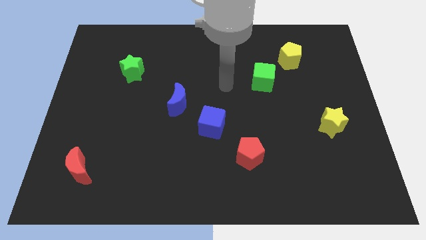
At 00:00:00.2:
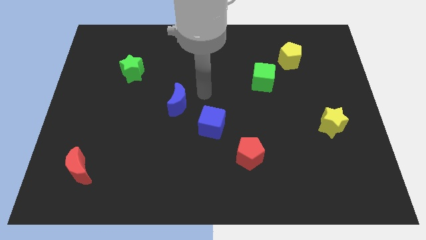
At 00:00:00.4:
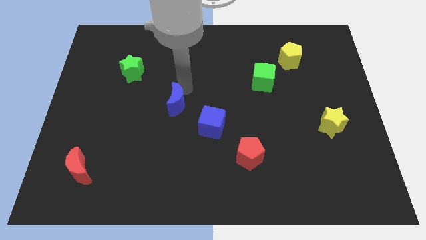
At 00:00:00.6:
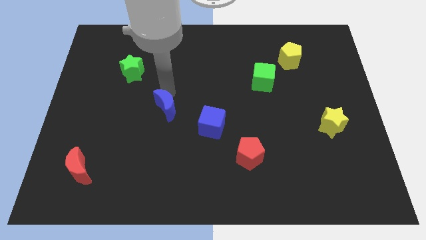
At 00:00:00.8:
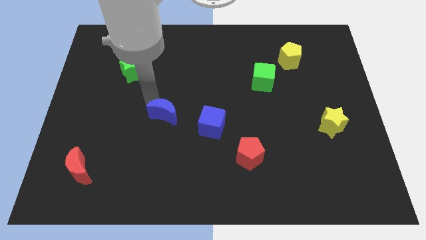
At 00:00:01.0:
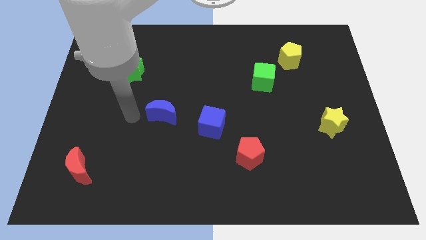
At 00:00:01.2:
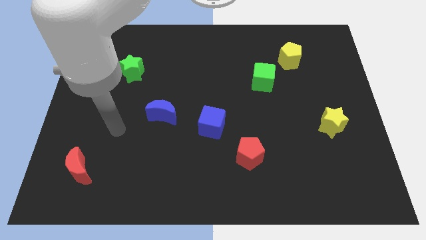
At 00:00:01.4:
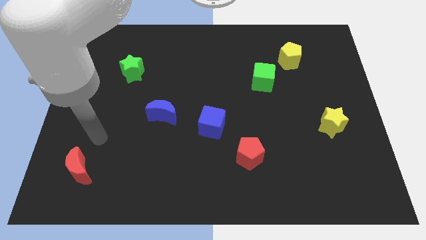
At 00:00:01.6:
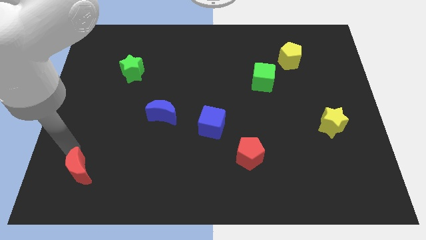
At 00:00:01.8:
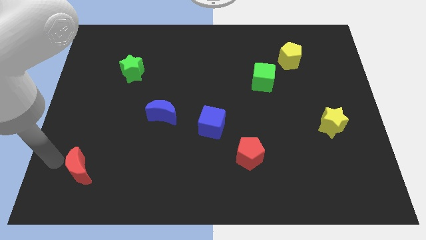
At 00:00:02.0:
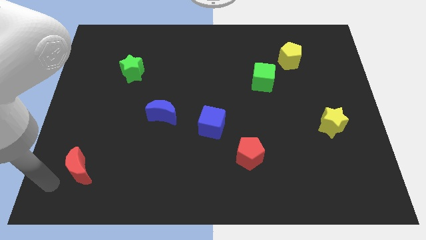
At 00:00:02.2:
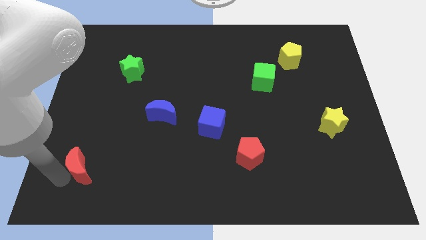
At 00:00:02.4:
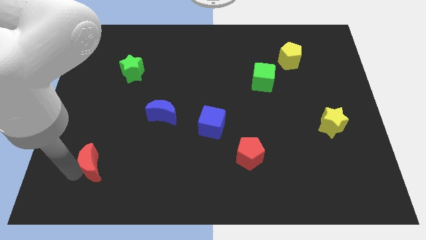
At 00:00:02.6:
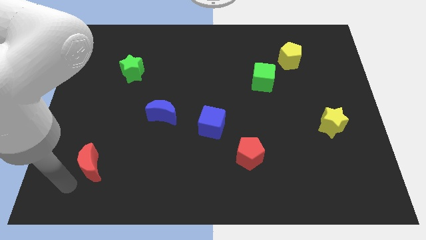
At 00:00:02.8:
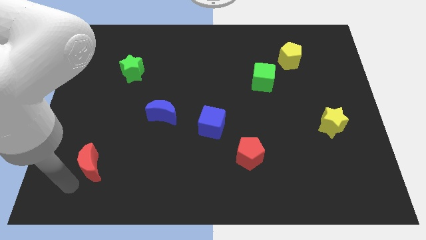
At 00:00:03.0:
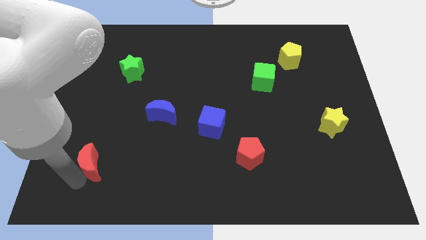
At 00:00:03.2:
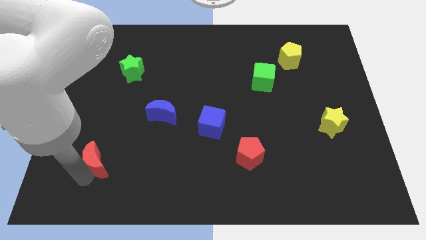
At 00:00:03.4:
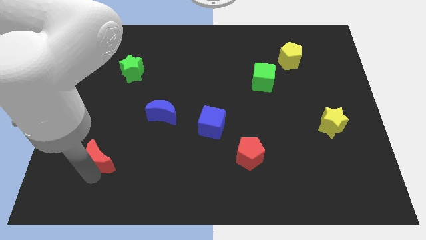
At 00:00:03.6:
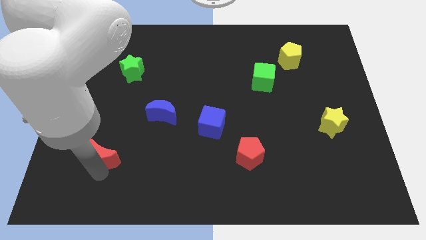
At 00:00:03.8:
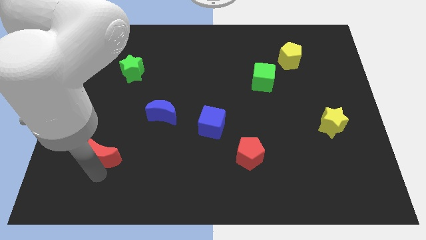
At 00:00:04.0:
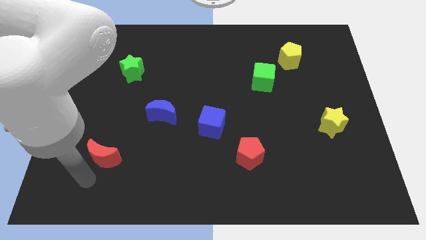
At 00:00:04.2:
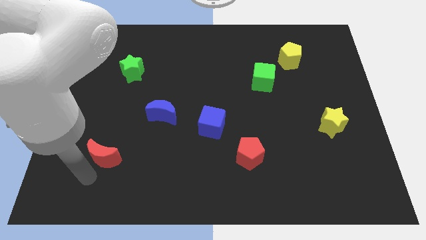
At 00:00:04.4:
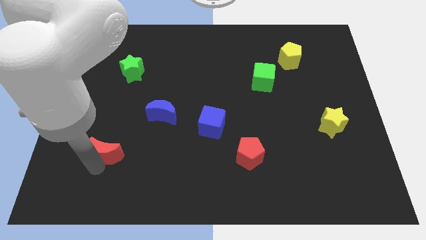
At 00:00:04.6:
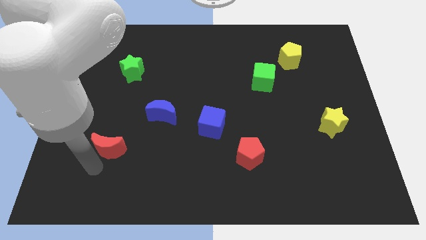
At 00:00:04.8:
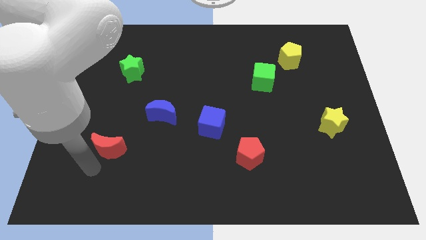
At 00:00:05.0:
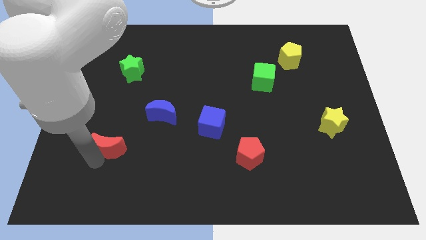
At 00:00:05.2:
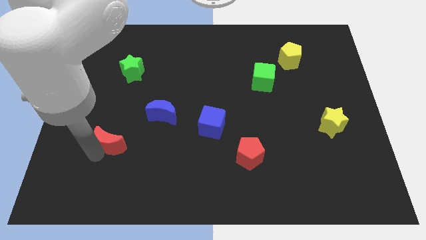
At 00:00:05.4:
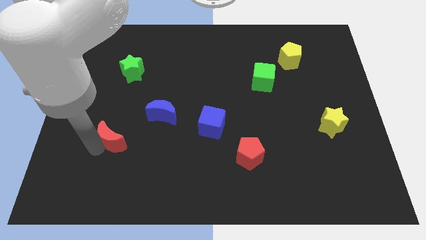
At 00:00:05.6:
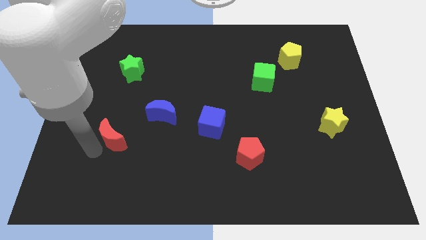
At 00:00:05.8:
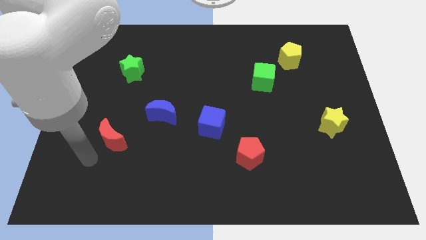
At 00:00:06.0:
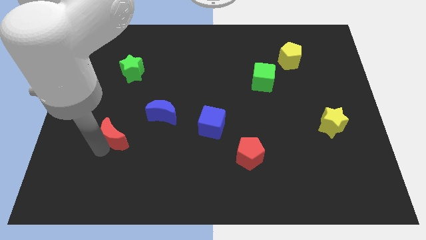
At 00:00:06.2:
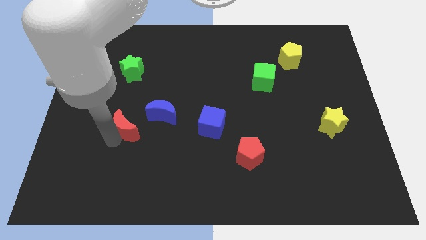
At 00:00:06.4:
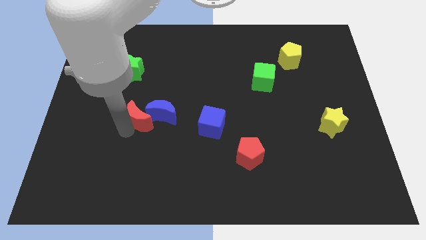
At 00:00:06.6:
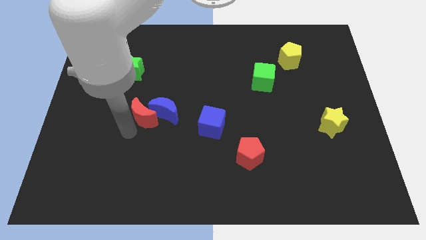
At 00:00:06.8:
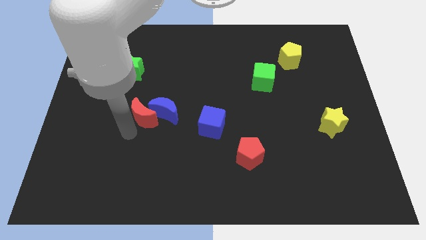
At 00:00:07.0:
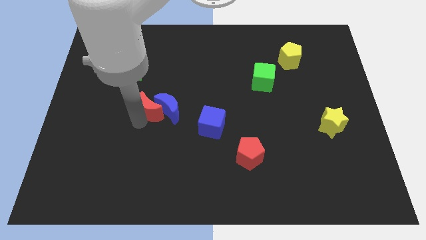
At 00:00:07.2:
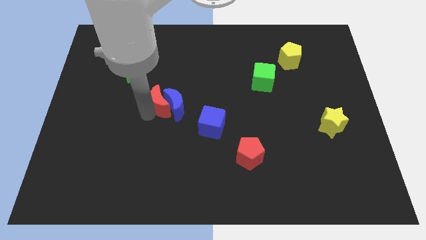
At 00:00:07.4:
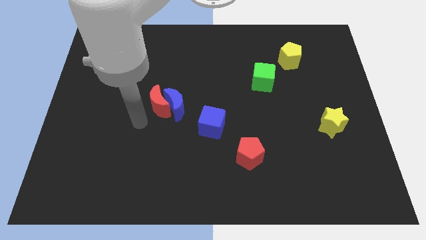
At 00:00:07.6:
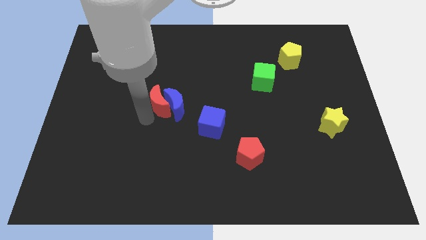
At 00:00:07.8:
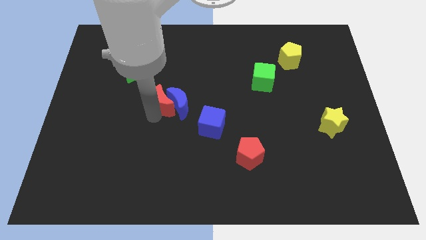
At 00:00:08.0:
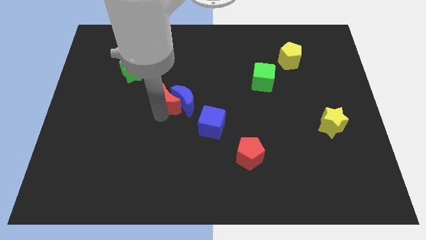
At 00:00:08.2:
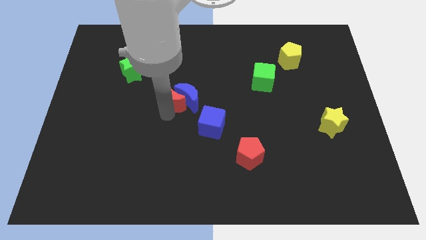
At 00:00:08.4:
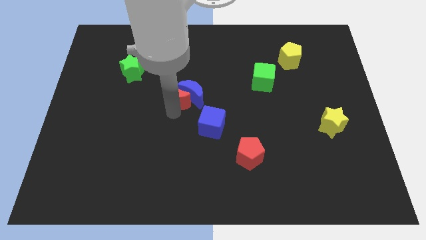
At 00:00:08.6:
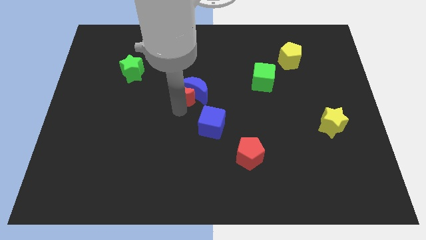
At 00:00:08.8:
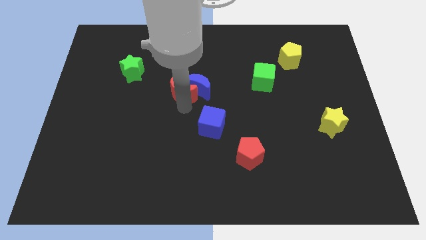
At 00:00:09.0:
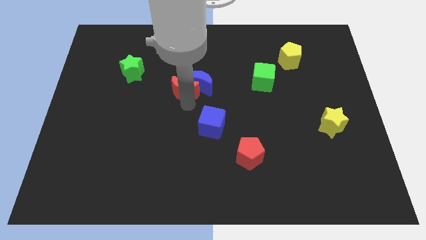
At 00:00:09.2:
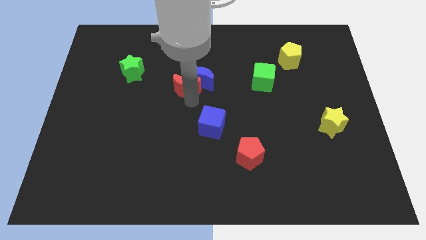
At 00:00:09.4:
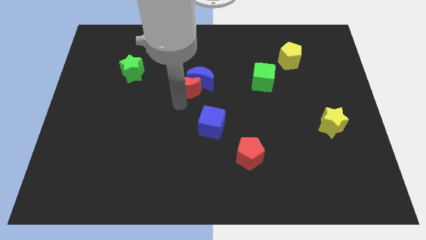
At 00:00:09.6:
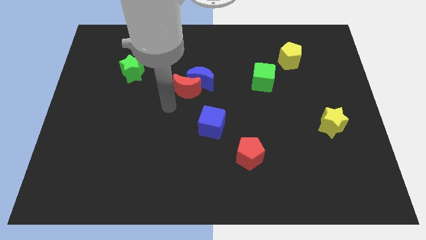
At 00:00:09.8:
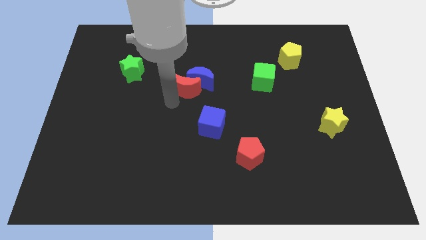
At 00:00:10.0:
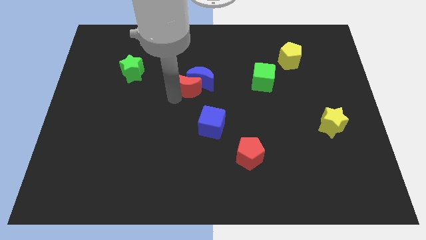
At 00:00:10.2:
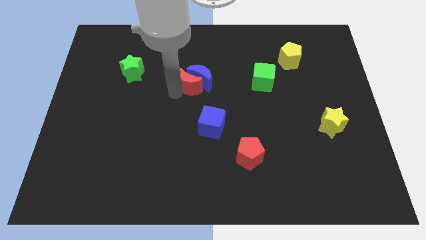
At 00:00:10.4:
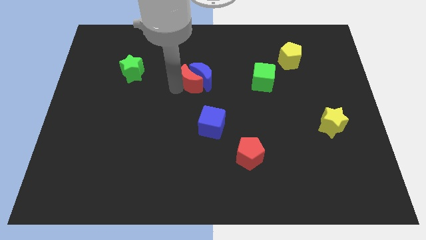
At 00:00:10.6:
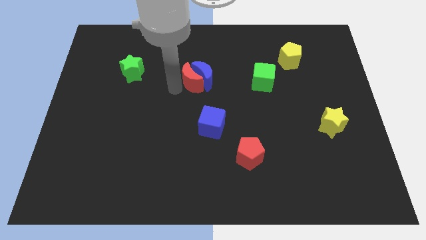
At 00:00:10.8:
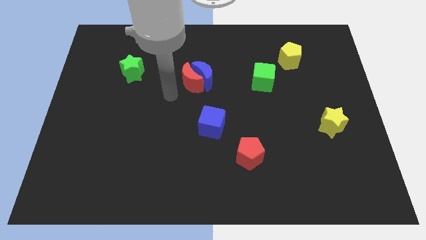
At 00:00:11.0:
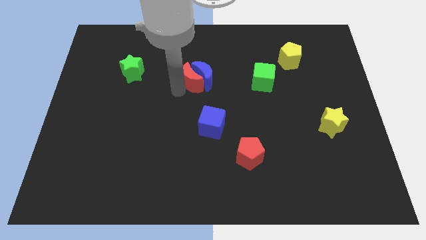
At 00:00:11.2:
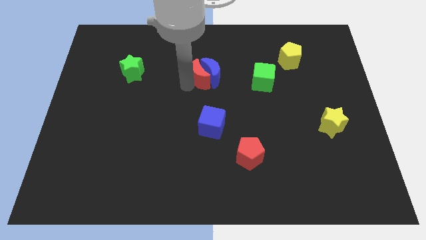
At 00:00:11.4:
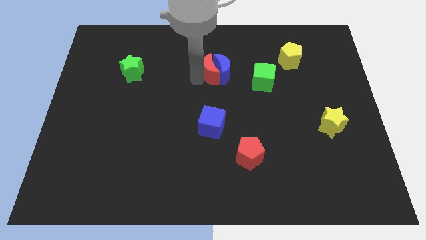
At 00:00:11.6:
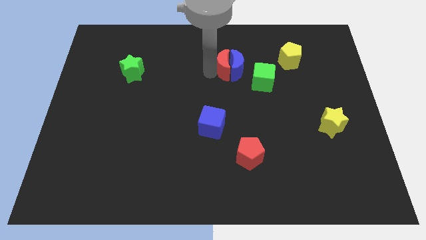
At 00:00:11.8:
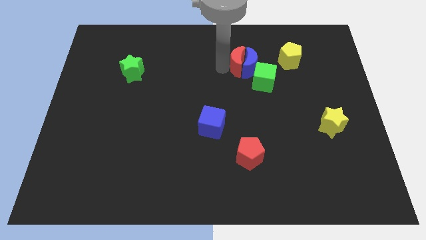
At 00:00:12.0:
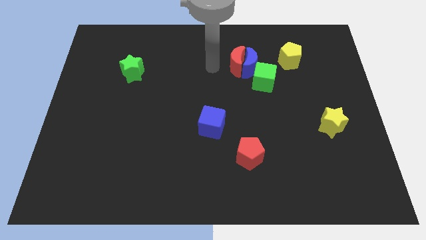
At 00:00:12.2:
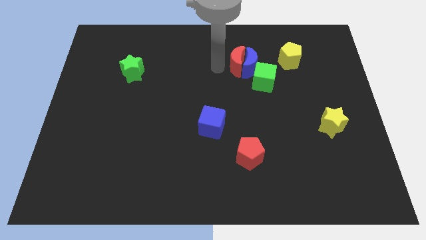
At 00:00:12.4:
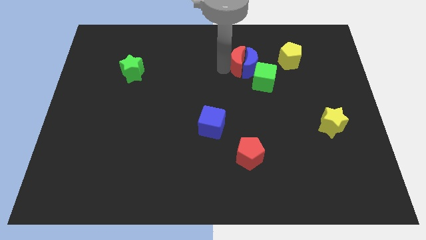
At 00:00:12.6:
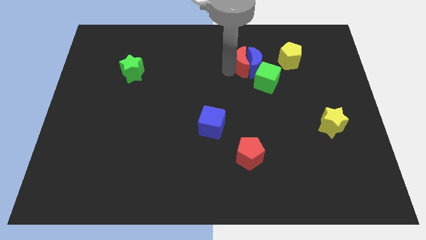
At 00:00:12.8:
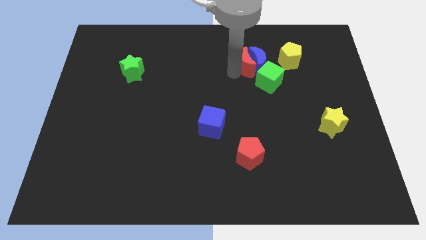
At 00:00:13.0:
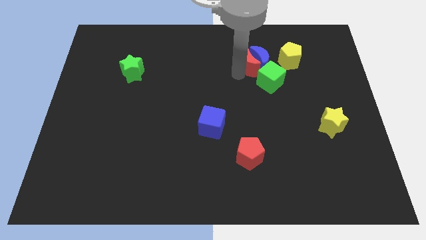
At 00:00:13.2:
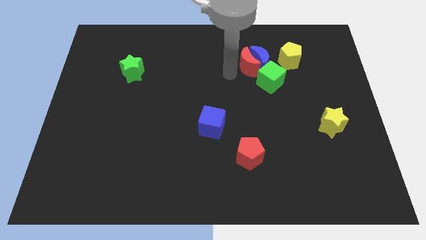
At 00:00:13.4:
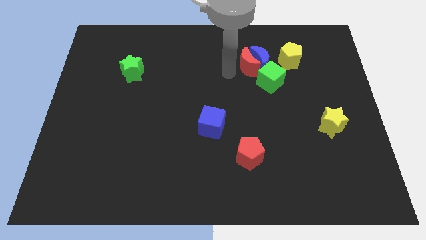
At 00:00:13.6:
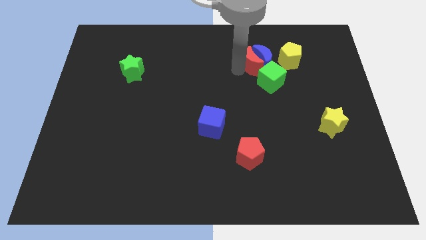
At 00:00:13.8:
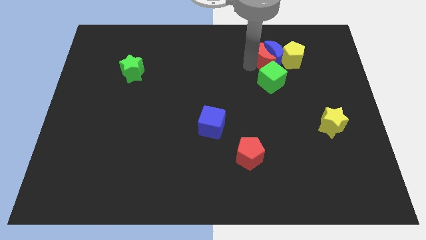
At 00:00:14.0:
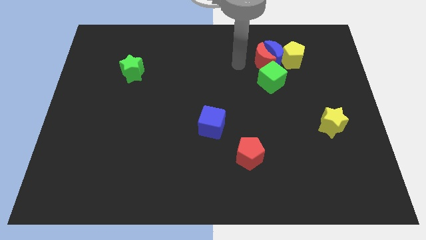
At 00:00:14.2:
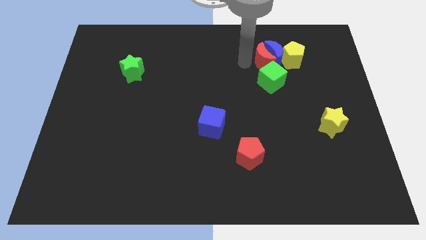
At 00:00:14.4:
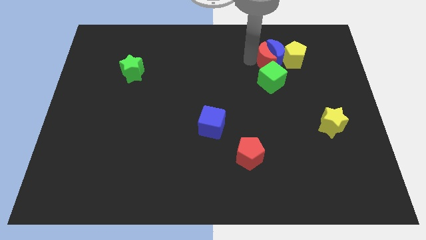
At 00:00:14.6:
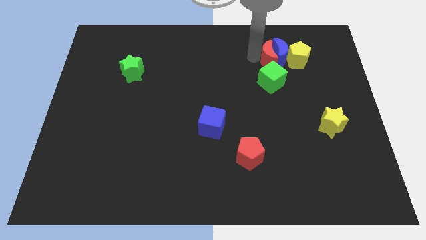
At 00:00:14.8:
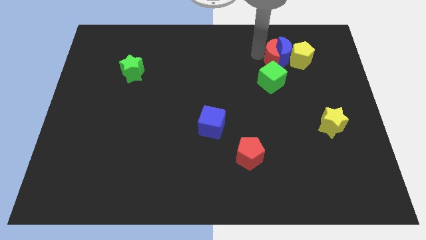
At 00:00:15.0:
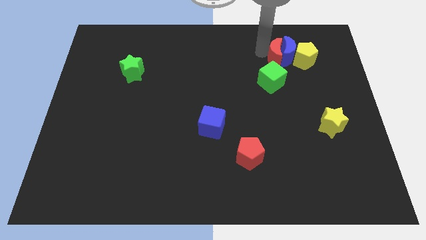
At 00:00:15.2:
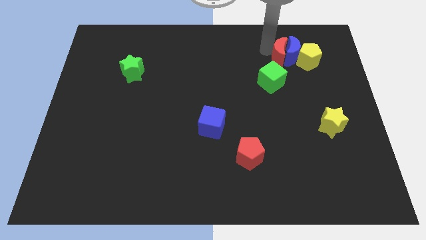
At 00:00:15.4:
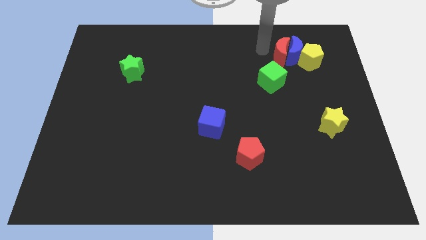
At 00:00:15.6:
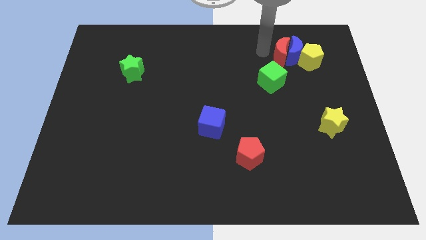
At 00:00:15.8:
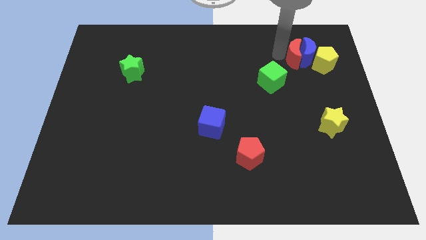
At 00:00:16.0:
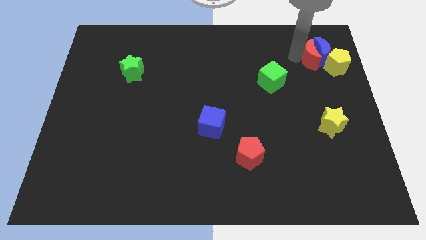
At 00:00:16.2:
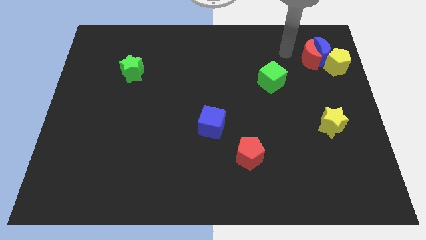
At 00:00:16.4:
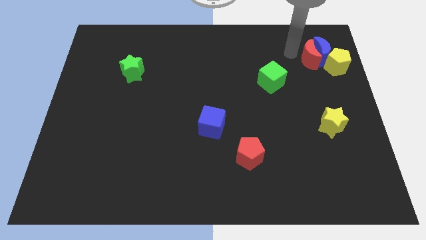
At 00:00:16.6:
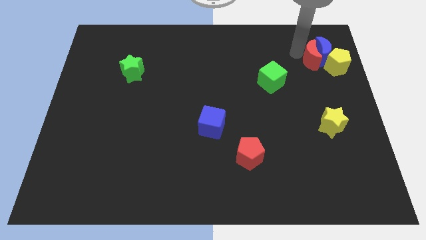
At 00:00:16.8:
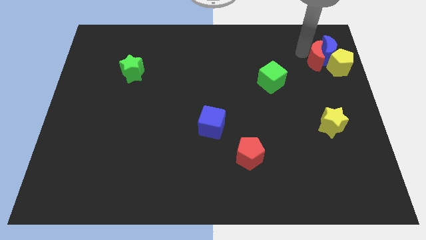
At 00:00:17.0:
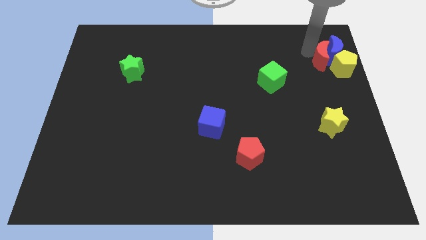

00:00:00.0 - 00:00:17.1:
put the red moon to the yellow pentagon

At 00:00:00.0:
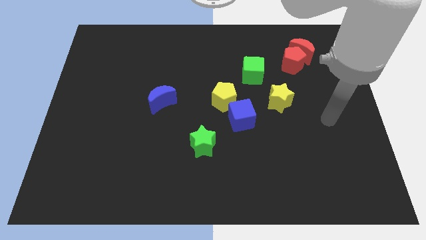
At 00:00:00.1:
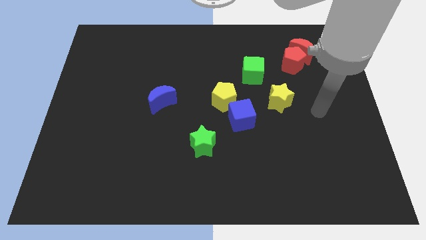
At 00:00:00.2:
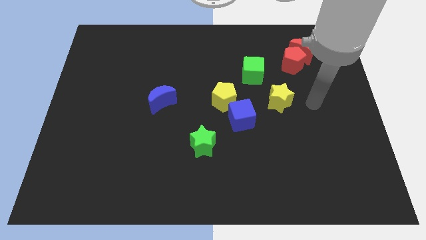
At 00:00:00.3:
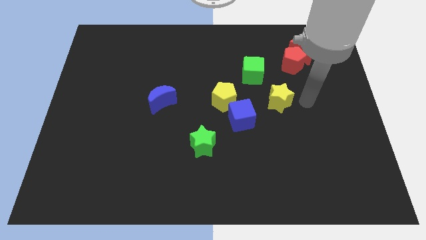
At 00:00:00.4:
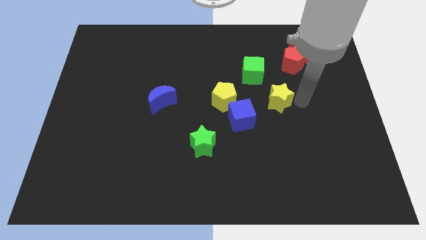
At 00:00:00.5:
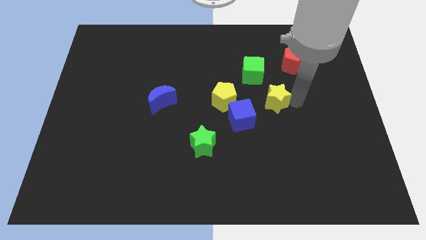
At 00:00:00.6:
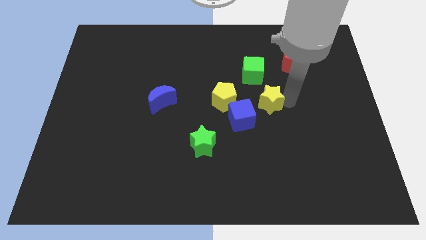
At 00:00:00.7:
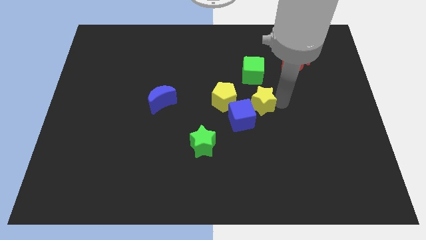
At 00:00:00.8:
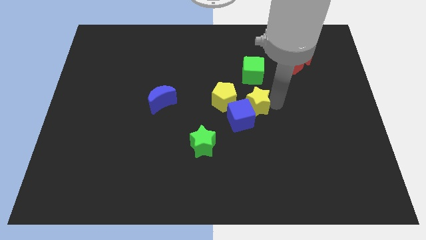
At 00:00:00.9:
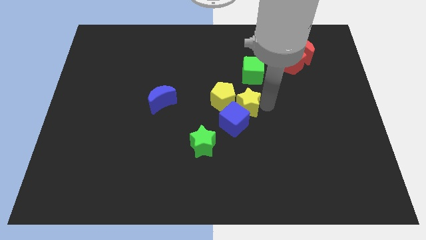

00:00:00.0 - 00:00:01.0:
move the yellow star next to the yellow pentagon
